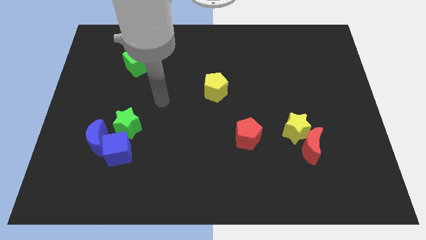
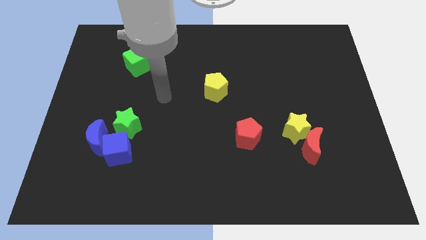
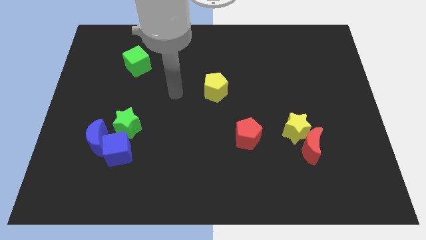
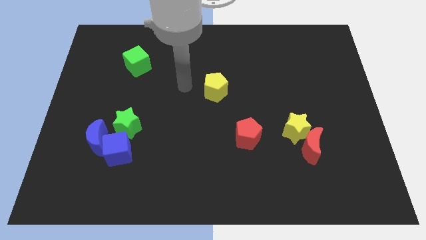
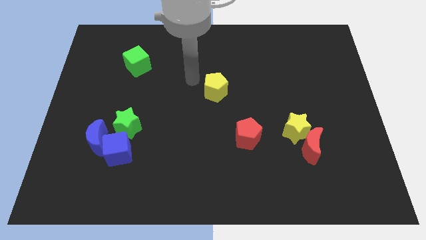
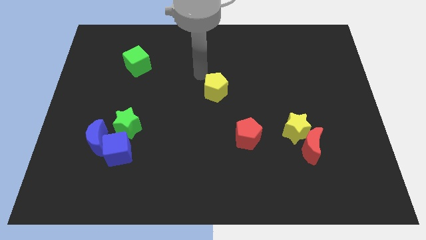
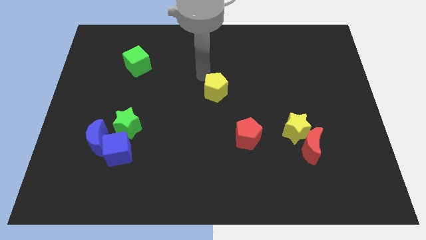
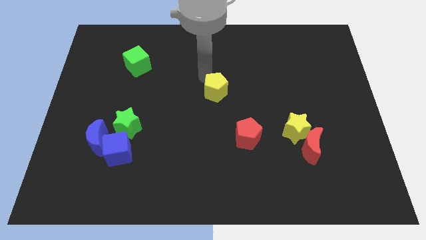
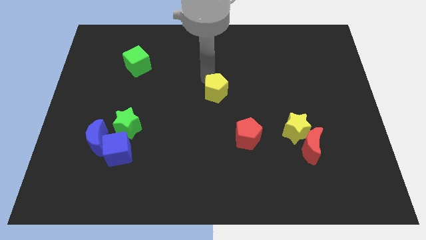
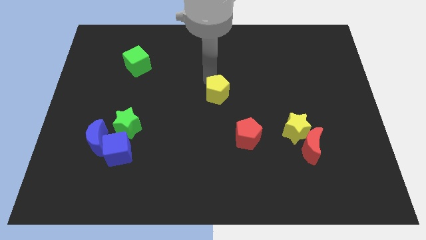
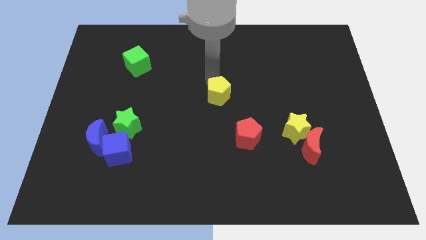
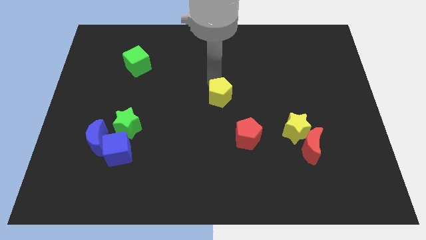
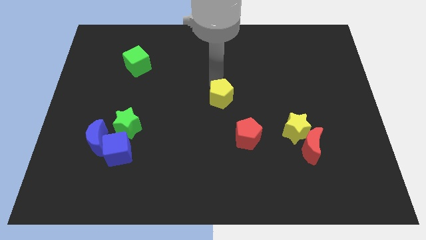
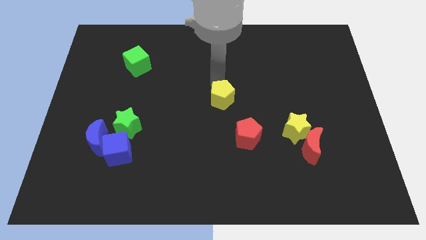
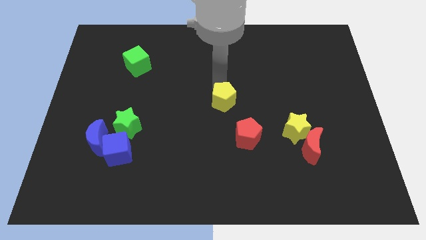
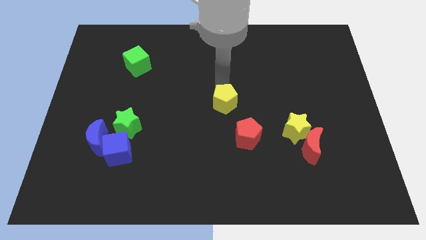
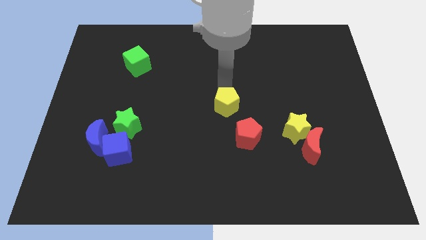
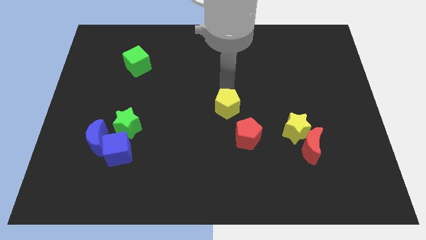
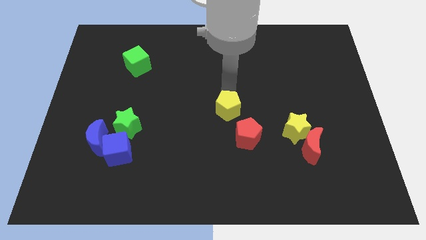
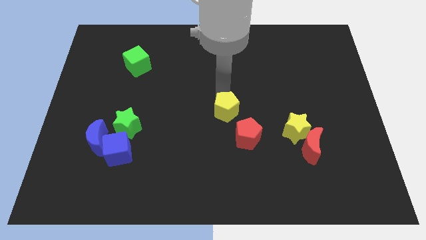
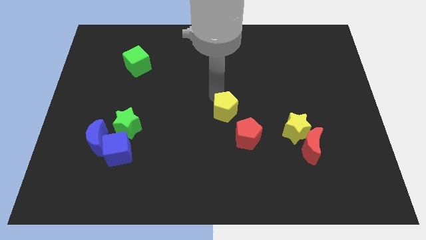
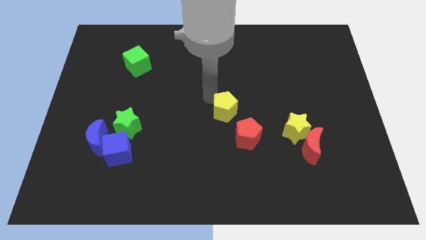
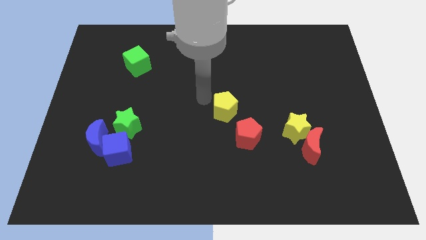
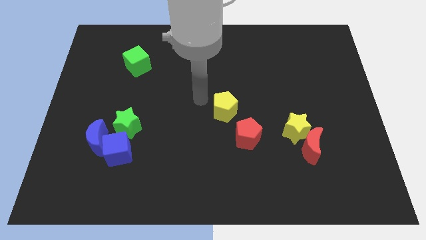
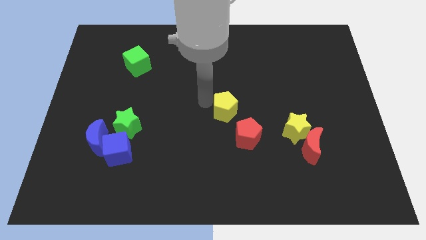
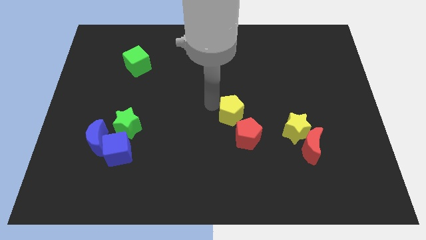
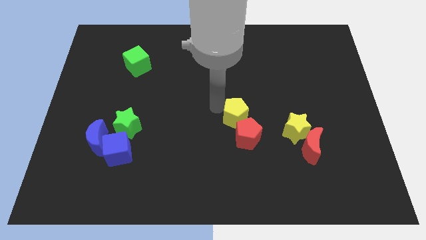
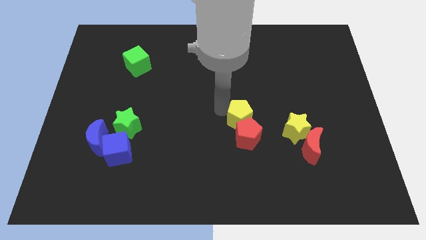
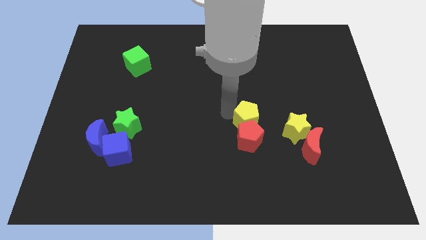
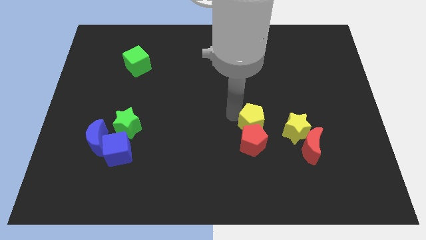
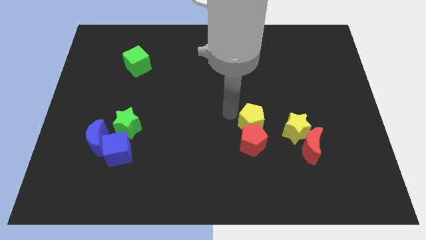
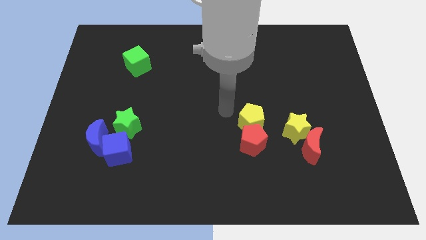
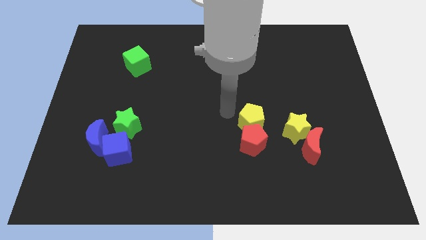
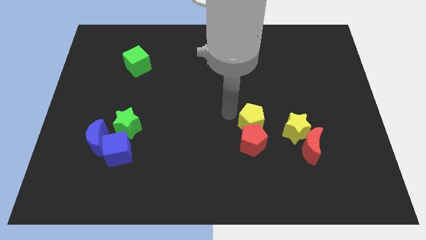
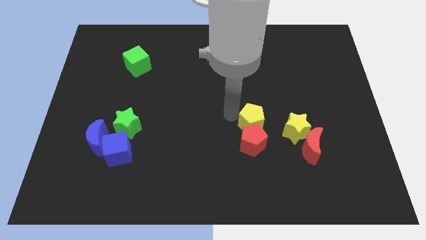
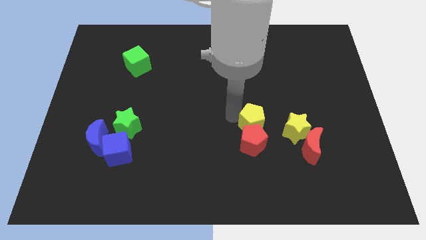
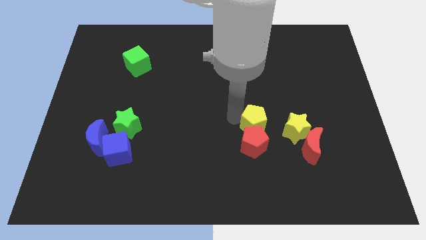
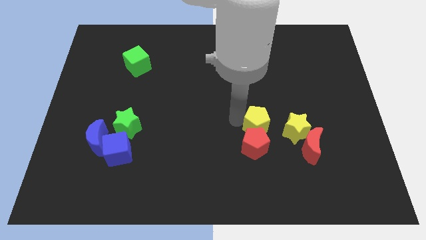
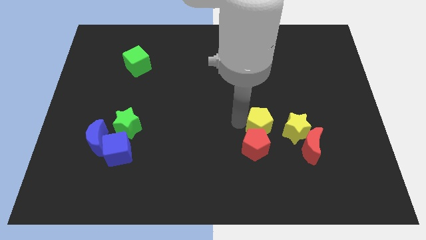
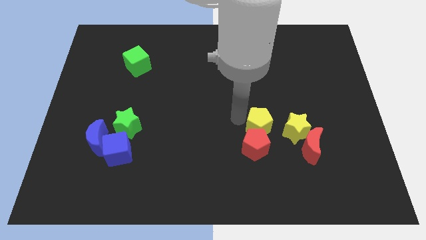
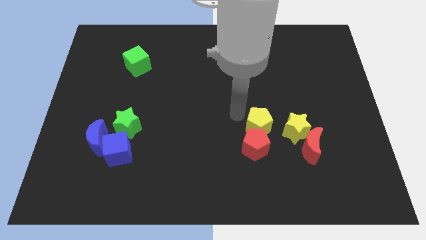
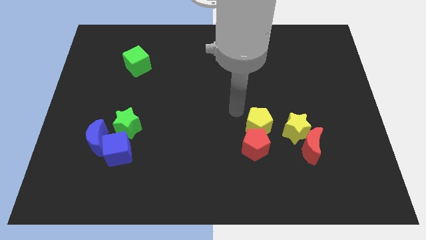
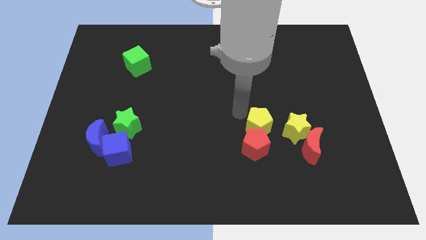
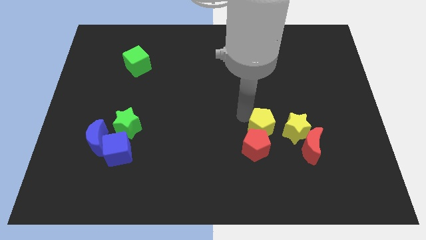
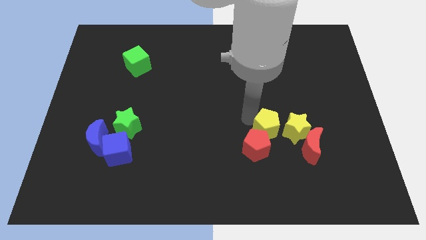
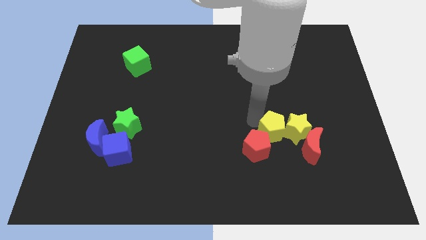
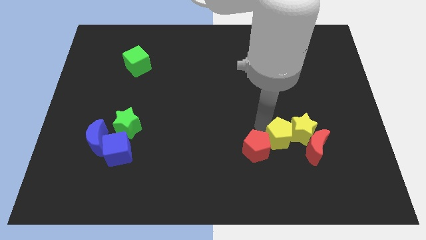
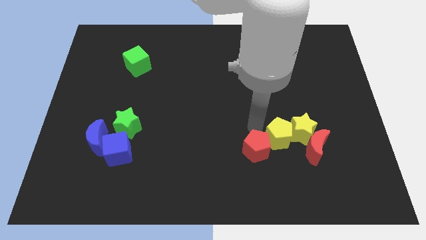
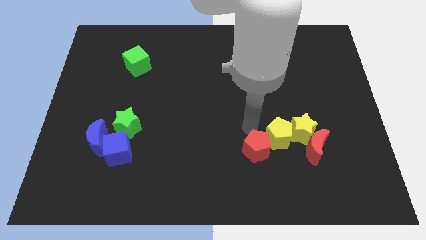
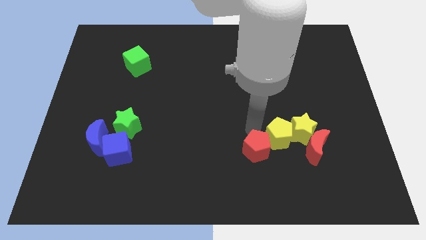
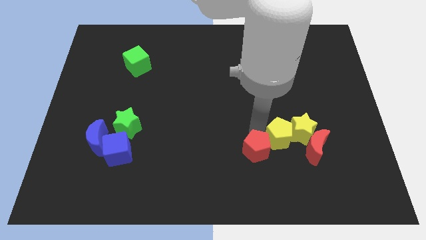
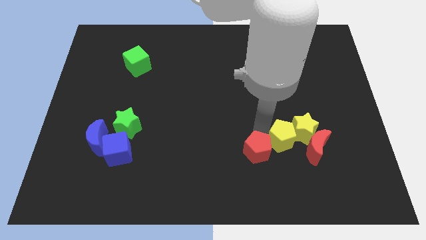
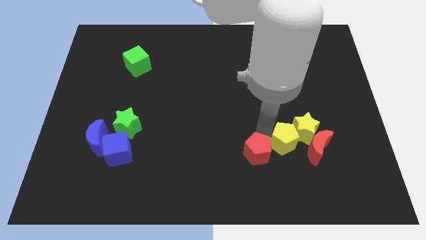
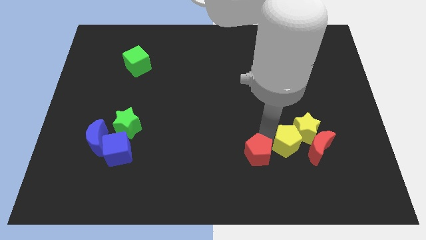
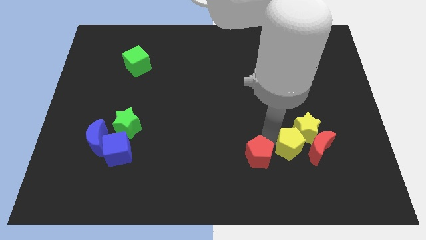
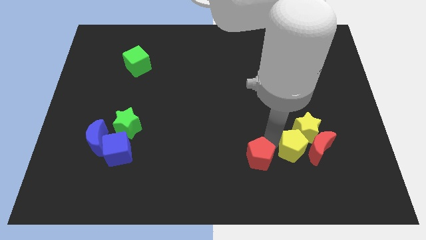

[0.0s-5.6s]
slide the yellow pentagon close to the red moon

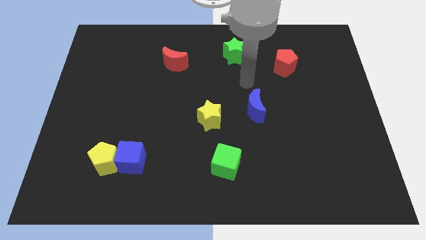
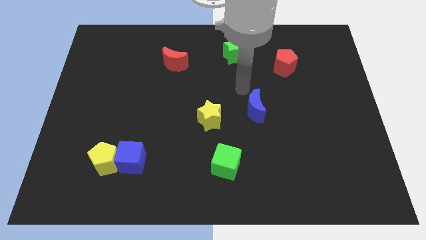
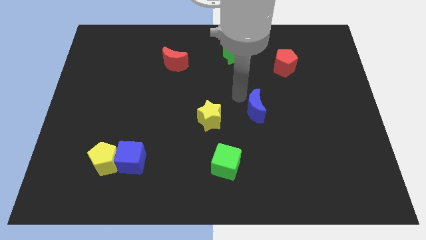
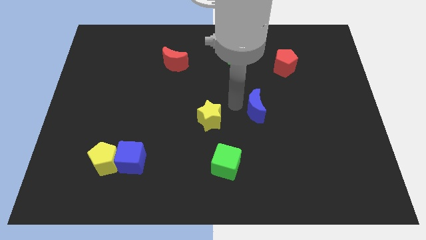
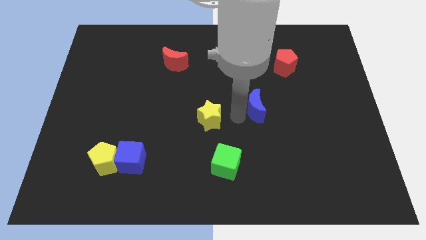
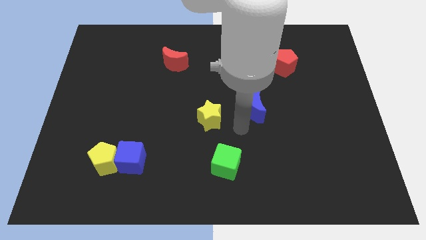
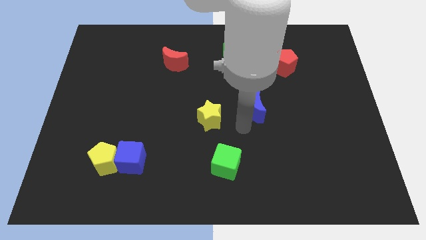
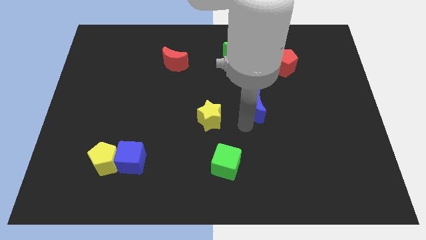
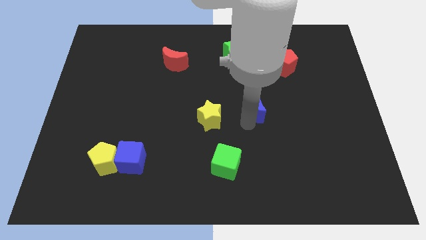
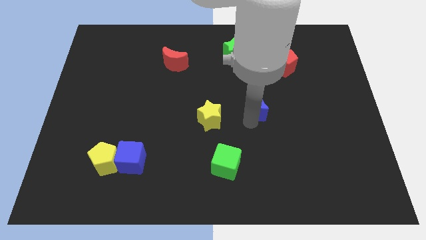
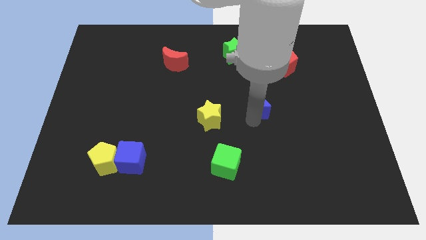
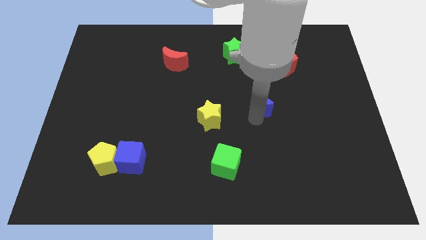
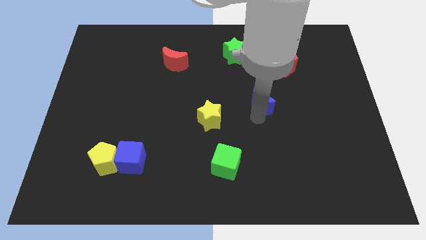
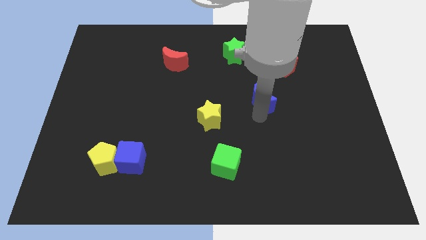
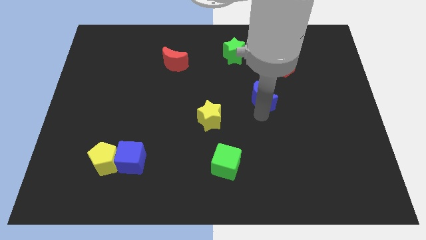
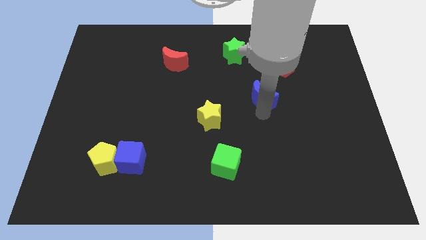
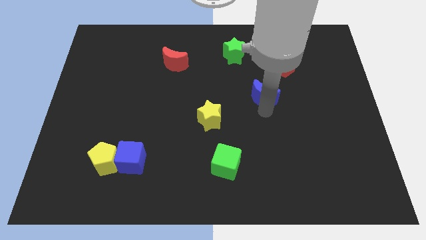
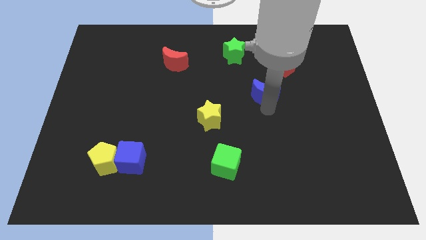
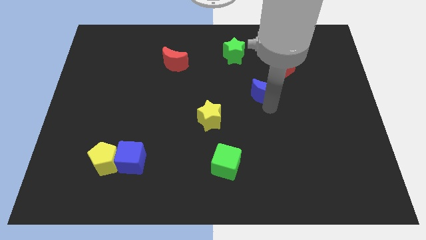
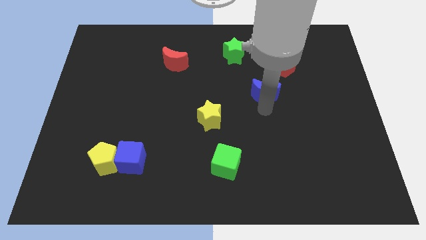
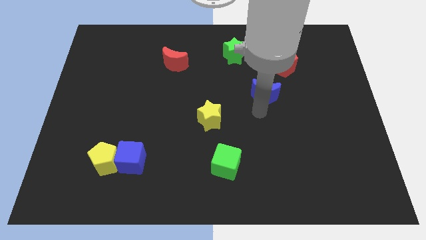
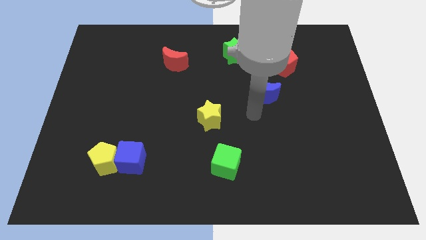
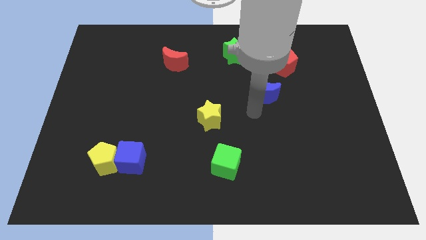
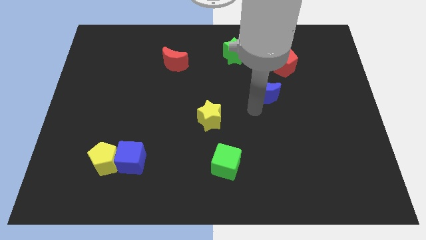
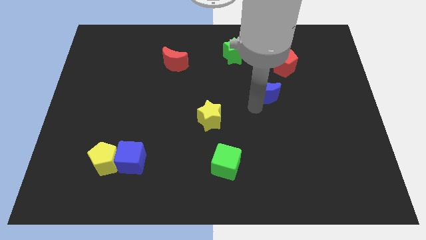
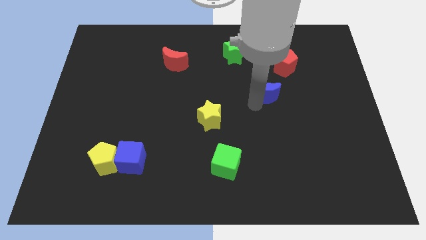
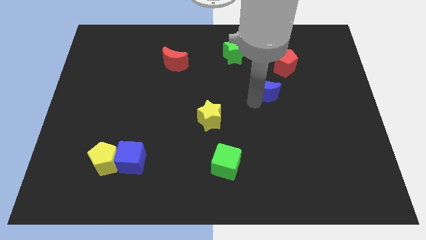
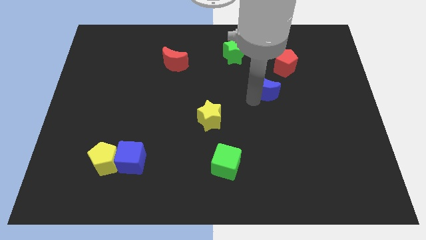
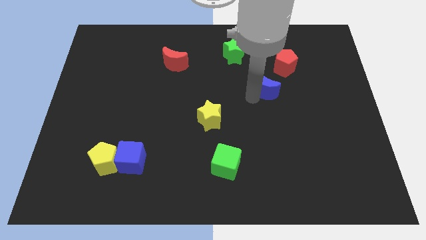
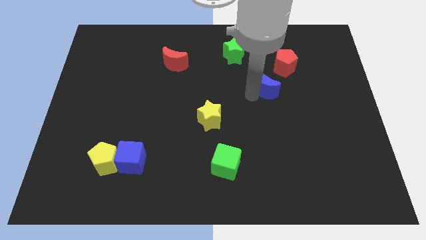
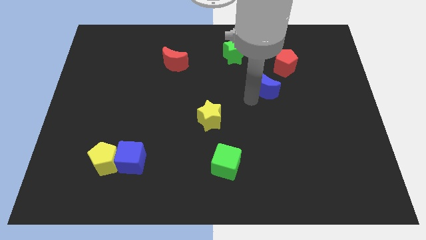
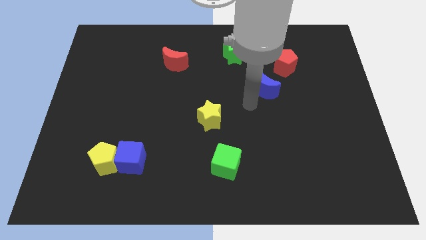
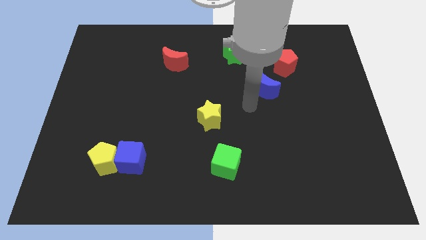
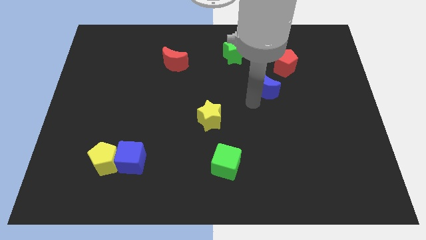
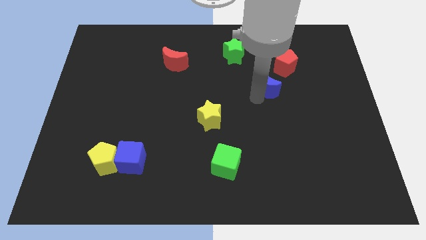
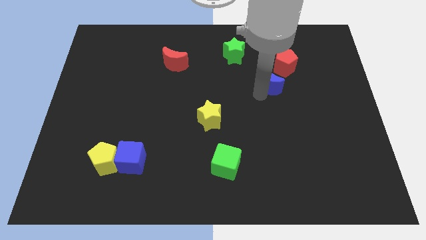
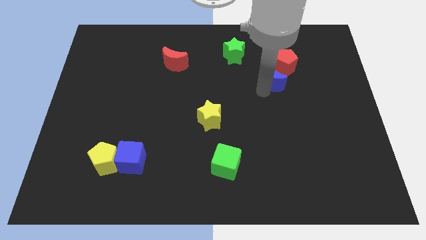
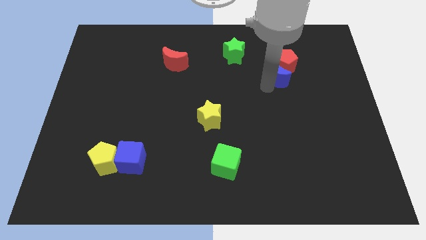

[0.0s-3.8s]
move the blue moon towards the red pentagon
